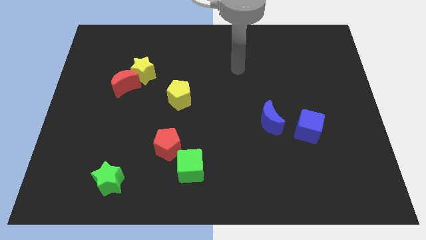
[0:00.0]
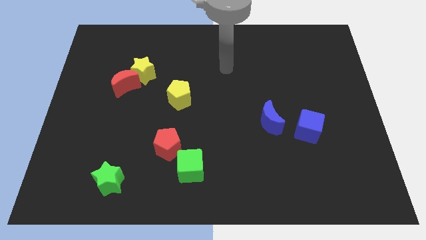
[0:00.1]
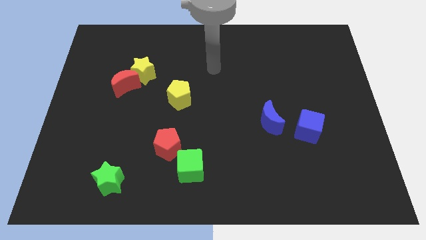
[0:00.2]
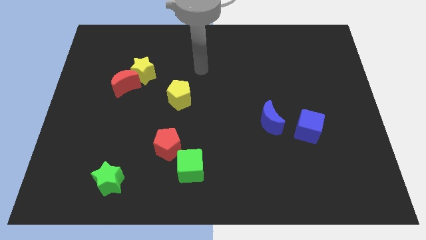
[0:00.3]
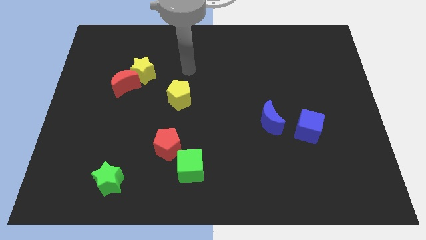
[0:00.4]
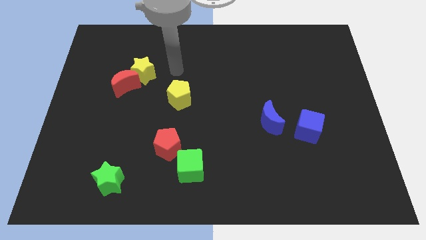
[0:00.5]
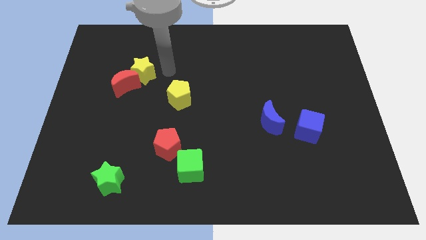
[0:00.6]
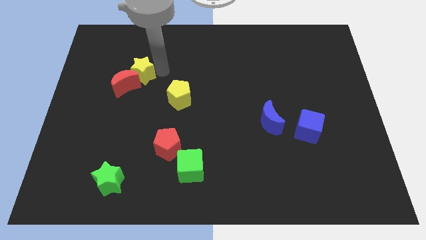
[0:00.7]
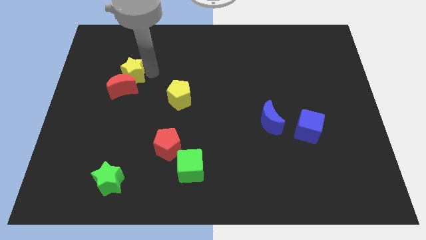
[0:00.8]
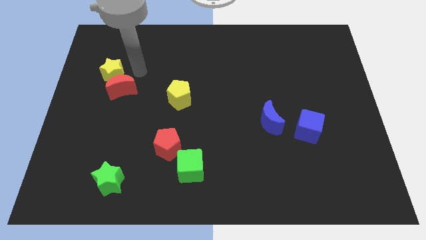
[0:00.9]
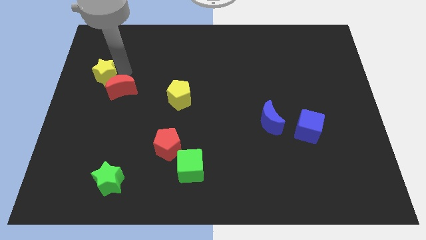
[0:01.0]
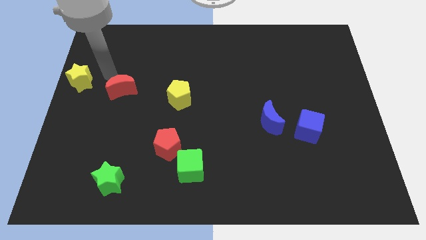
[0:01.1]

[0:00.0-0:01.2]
separate the red moon from the yellow star

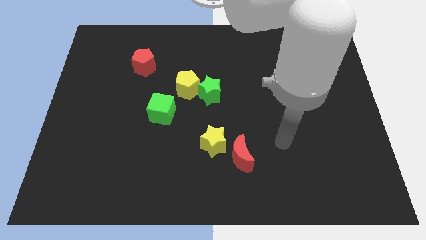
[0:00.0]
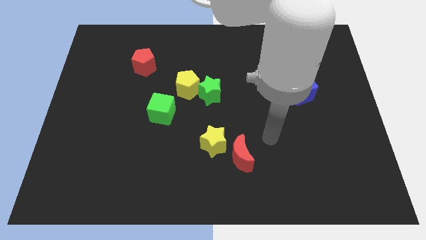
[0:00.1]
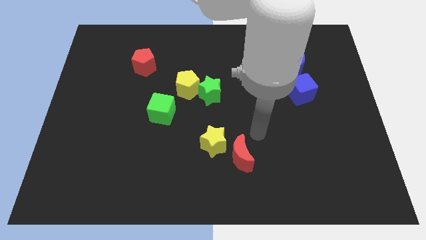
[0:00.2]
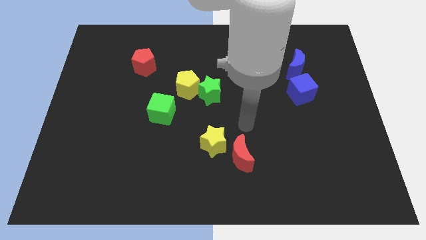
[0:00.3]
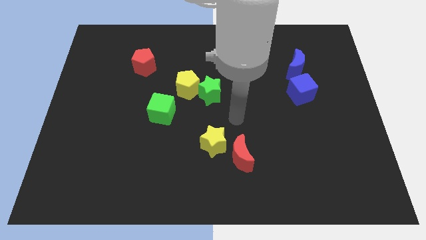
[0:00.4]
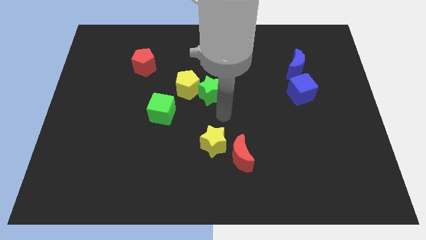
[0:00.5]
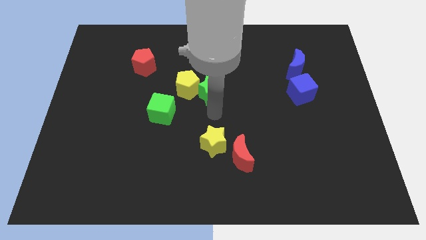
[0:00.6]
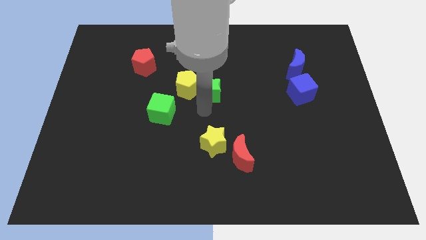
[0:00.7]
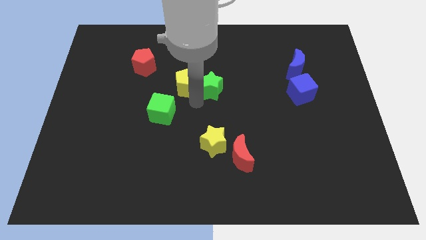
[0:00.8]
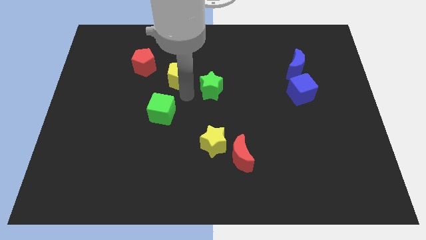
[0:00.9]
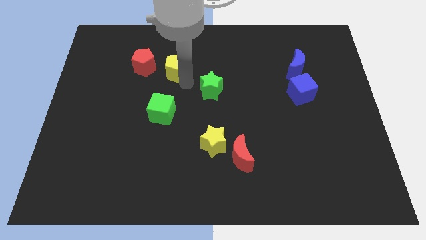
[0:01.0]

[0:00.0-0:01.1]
pull the green star apart from the yellow pentagon

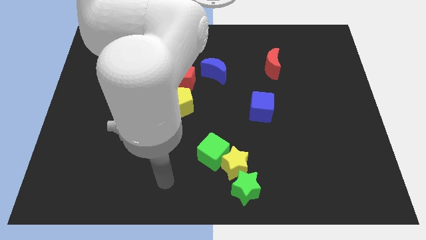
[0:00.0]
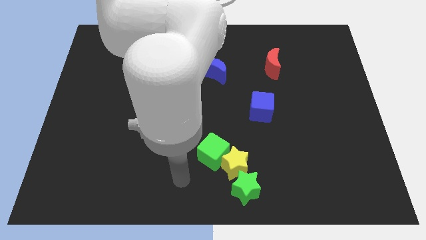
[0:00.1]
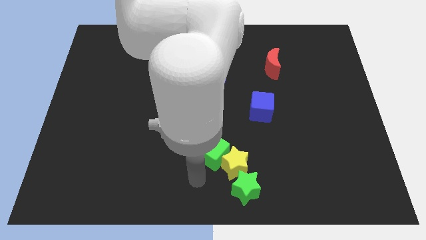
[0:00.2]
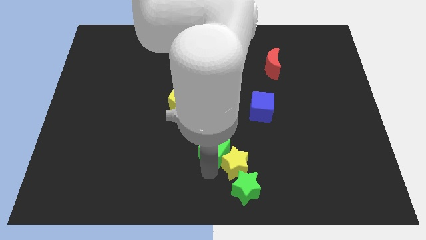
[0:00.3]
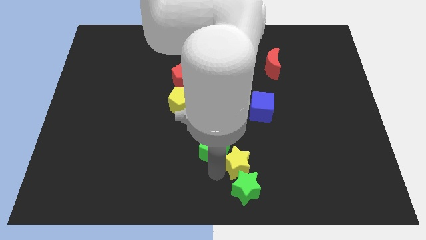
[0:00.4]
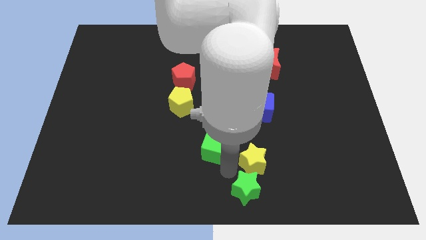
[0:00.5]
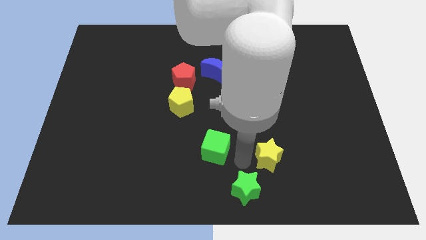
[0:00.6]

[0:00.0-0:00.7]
move the green cube away from the yellow star

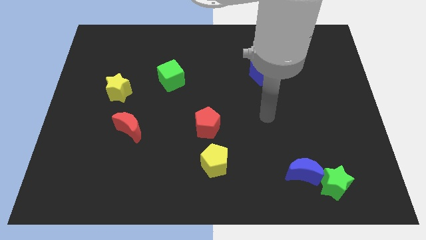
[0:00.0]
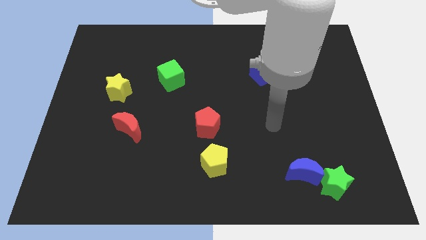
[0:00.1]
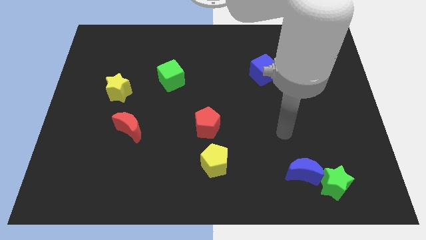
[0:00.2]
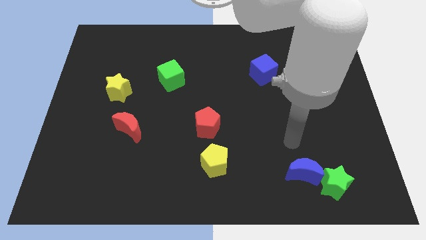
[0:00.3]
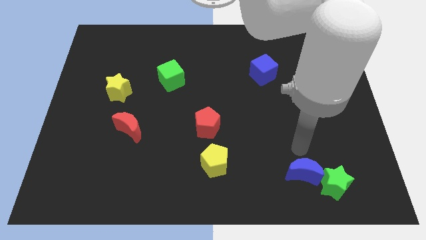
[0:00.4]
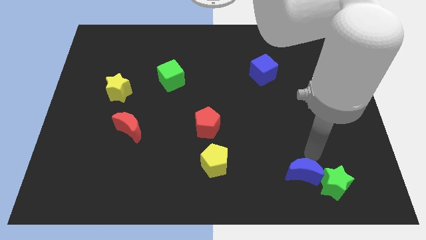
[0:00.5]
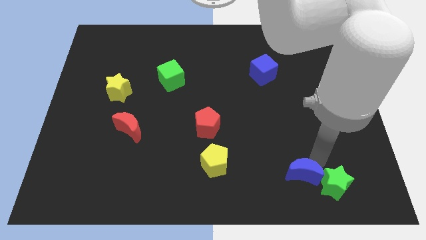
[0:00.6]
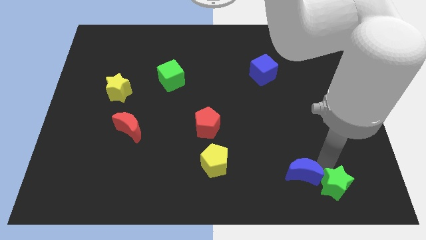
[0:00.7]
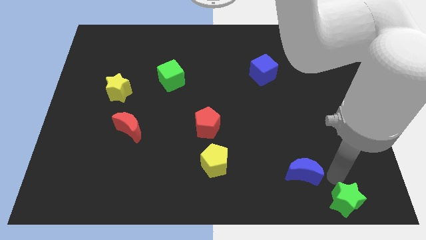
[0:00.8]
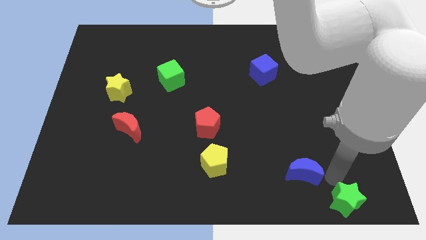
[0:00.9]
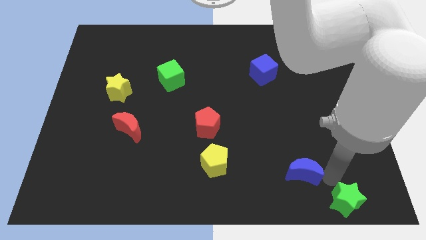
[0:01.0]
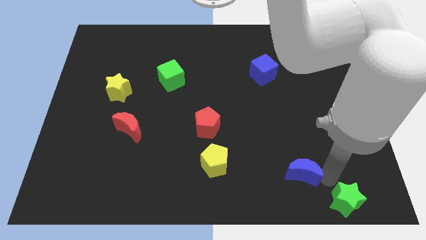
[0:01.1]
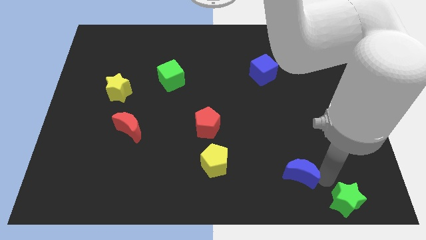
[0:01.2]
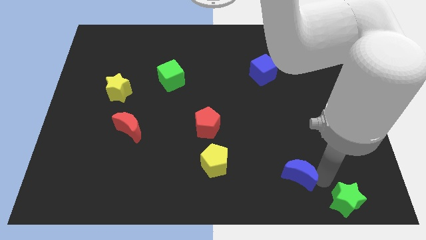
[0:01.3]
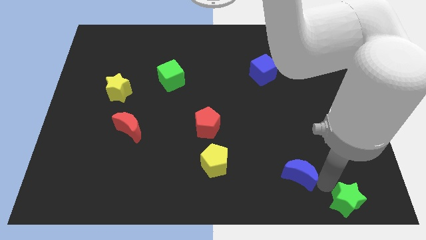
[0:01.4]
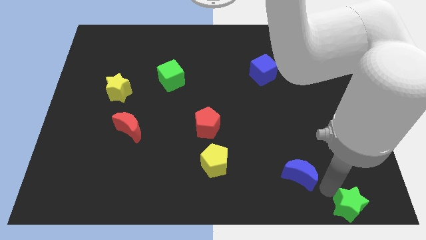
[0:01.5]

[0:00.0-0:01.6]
pull the blue moon apart from the green star

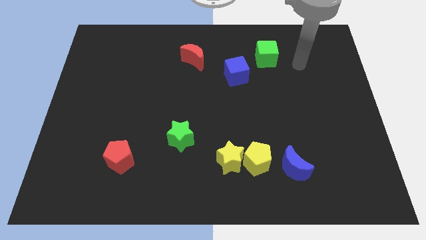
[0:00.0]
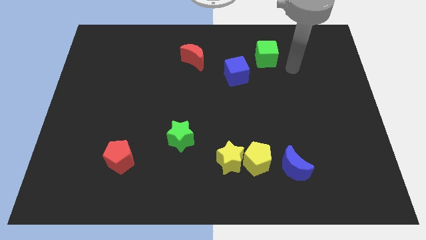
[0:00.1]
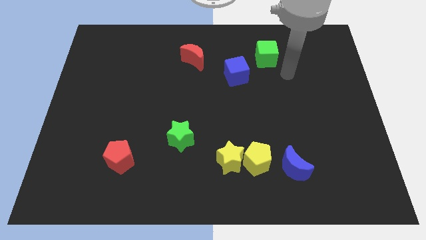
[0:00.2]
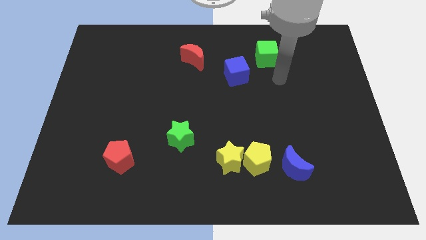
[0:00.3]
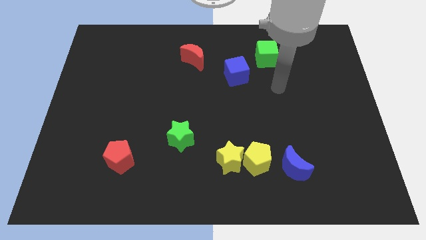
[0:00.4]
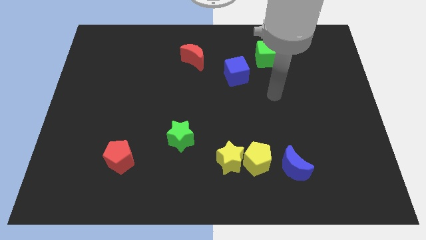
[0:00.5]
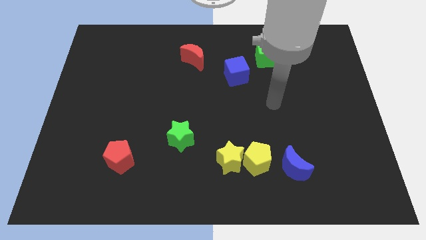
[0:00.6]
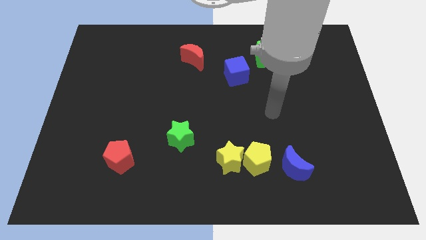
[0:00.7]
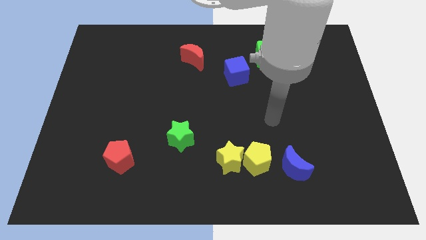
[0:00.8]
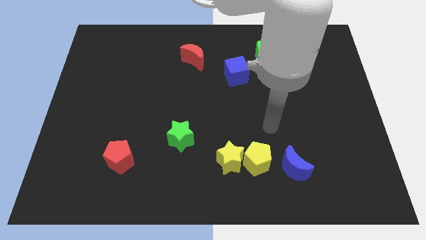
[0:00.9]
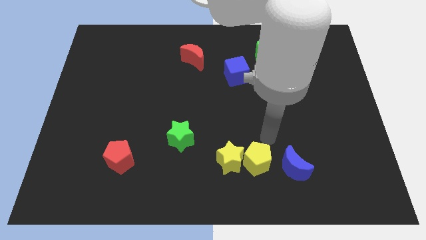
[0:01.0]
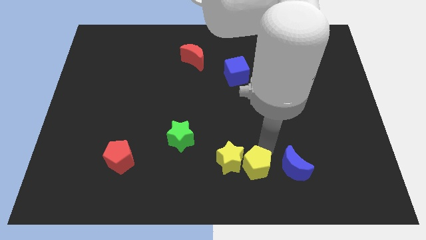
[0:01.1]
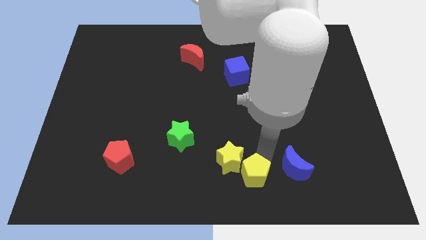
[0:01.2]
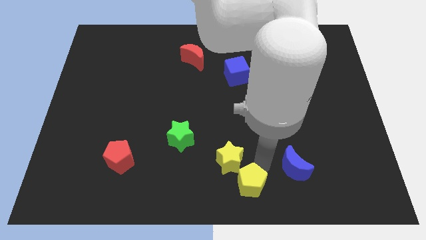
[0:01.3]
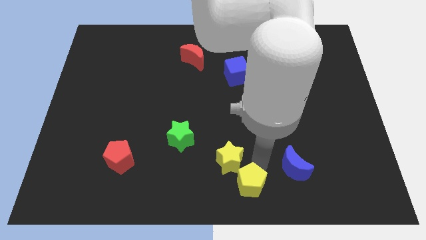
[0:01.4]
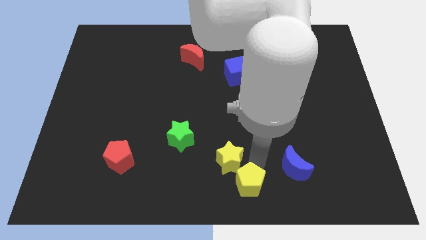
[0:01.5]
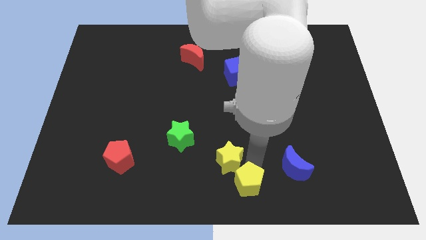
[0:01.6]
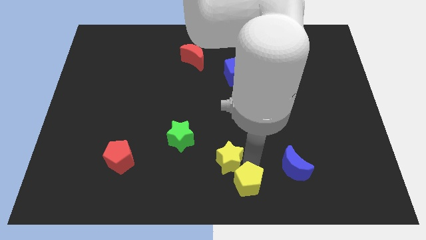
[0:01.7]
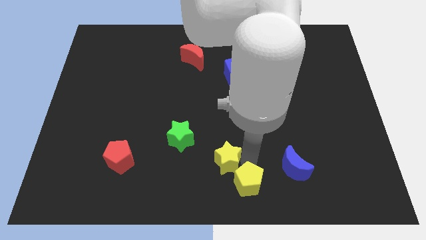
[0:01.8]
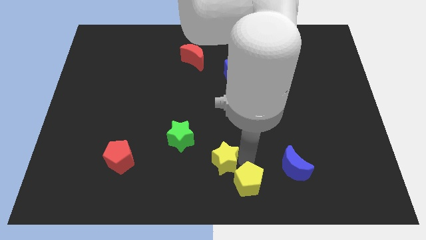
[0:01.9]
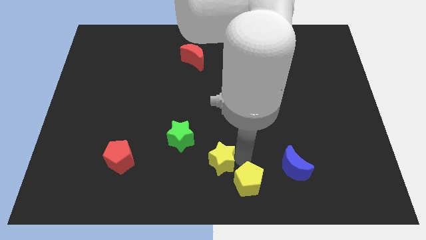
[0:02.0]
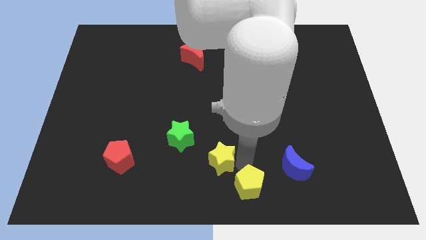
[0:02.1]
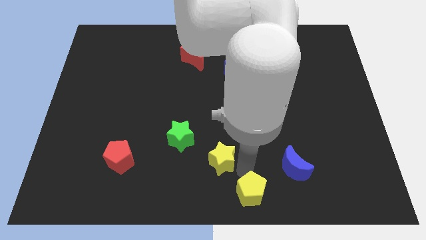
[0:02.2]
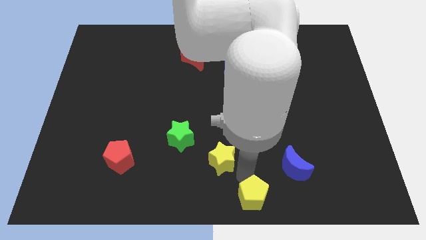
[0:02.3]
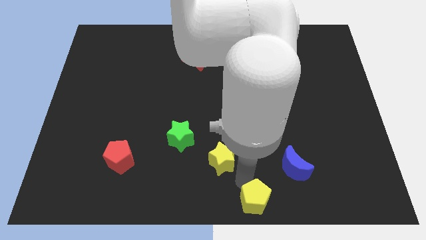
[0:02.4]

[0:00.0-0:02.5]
move the yellow star away from the yellow pentagon

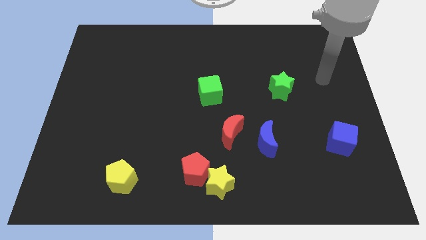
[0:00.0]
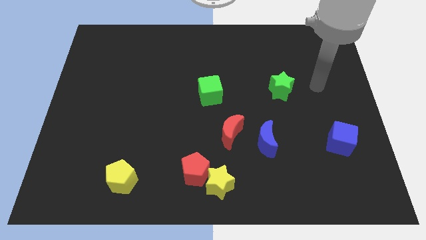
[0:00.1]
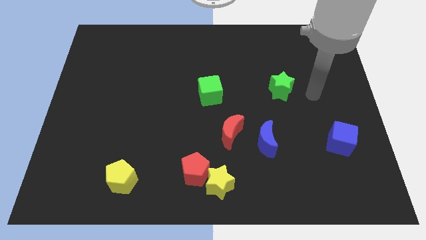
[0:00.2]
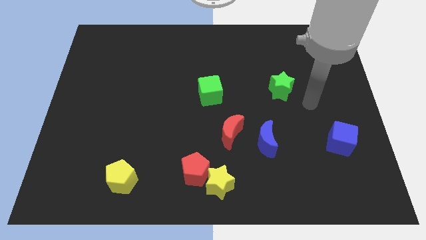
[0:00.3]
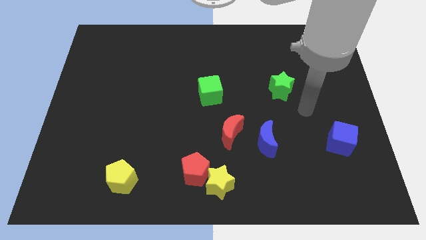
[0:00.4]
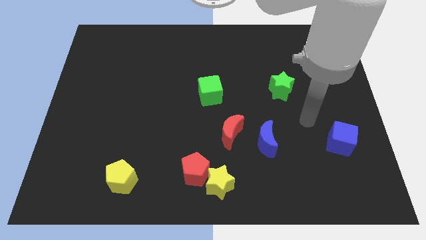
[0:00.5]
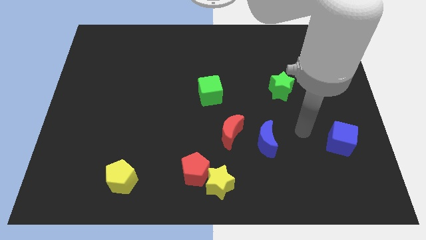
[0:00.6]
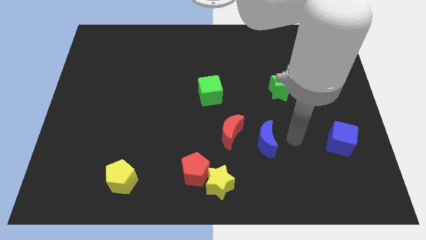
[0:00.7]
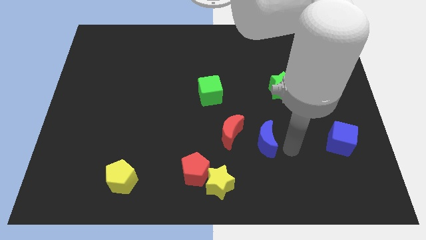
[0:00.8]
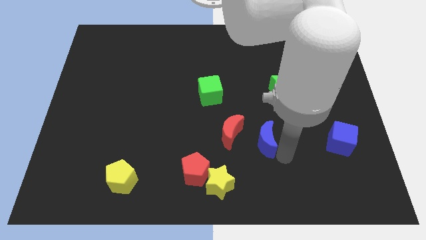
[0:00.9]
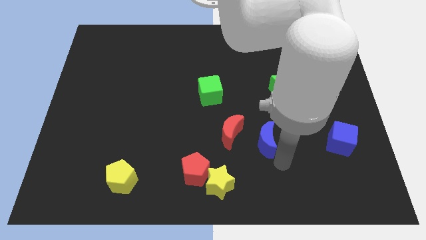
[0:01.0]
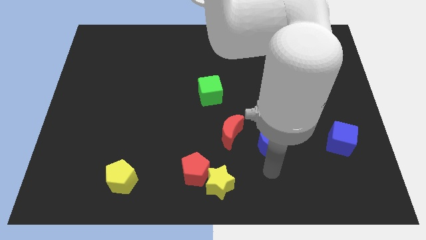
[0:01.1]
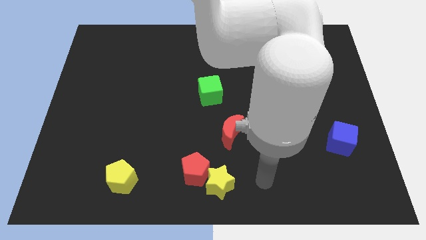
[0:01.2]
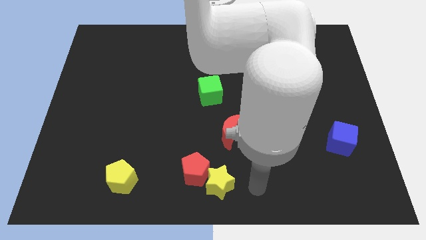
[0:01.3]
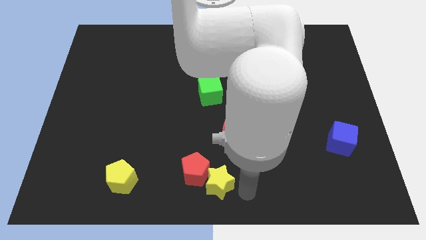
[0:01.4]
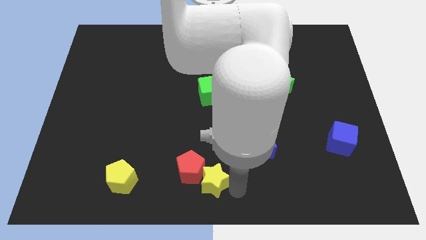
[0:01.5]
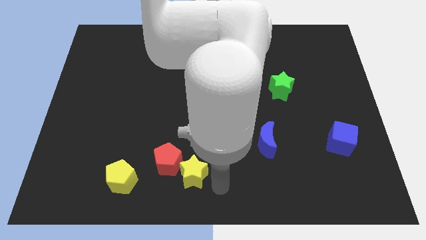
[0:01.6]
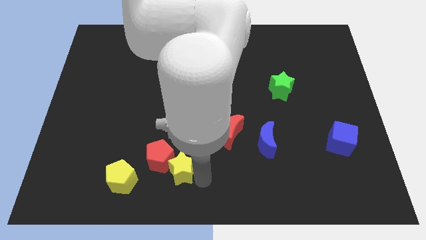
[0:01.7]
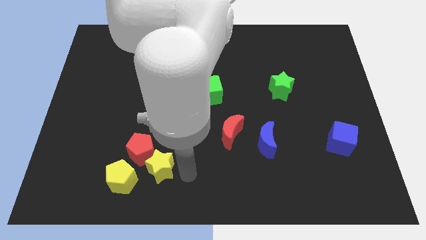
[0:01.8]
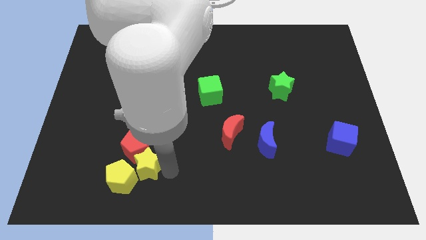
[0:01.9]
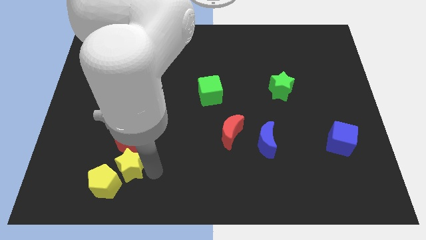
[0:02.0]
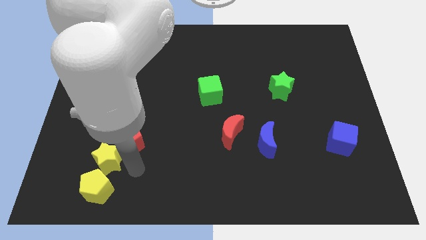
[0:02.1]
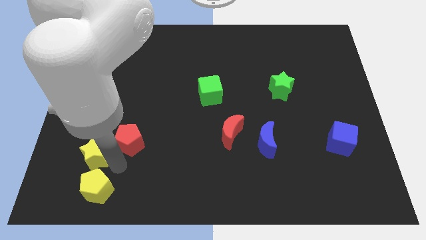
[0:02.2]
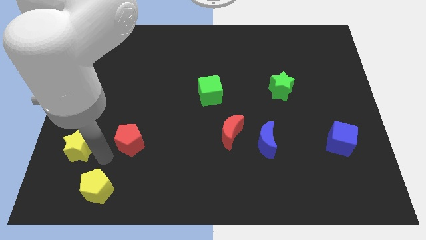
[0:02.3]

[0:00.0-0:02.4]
move the red pentagon away from the yellow star
